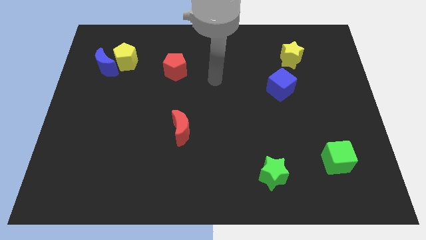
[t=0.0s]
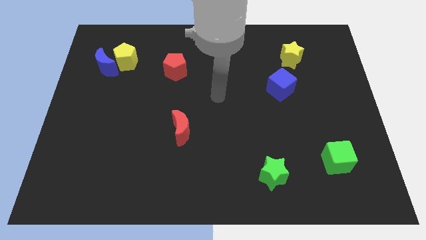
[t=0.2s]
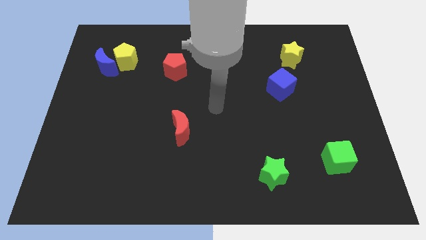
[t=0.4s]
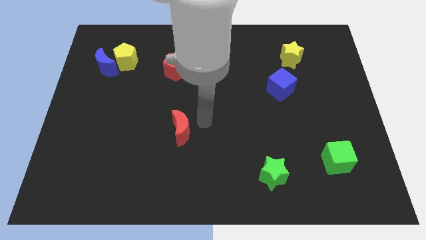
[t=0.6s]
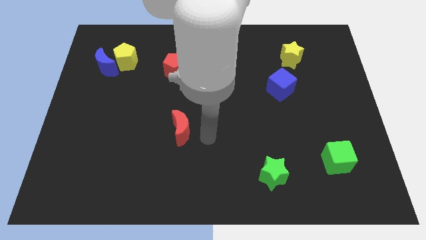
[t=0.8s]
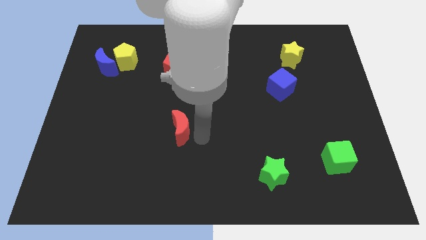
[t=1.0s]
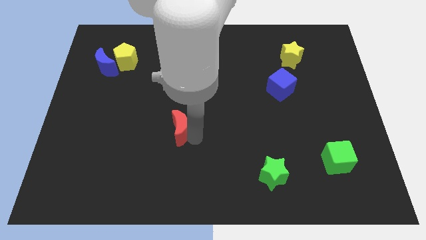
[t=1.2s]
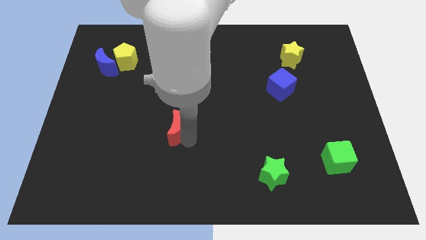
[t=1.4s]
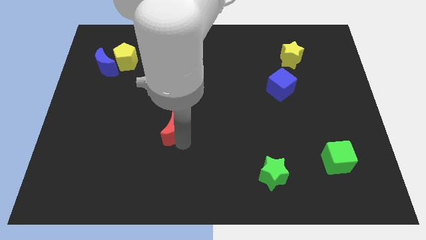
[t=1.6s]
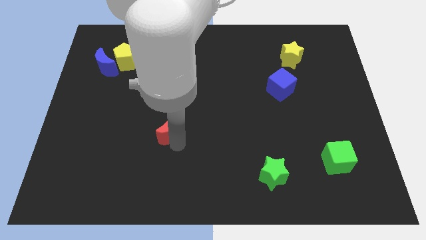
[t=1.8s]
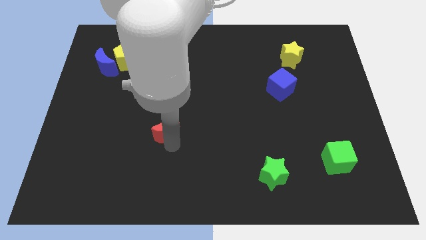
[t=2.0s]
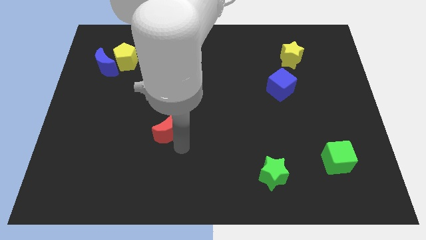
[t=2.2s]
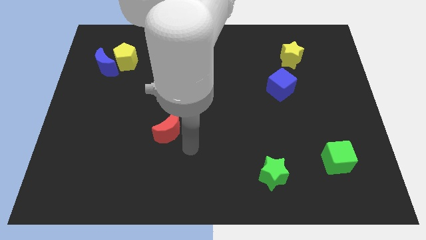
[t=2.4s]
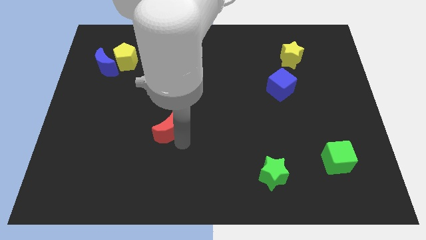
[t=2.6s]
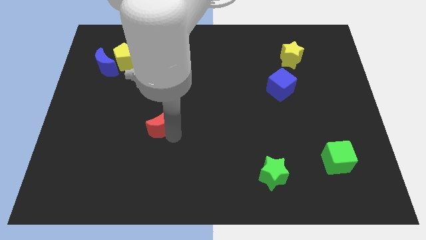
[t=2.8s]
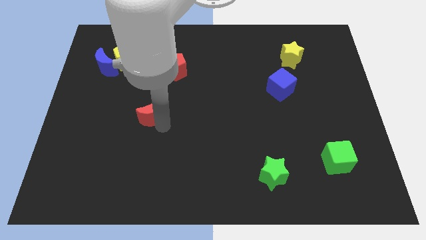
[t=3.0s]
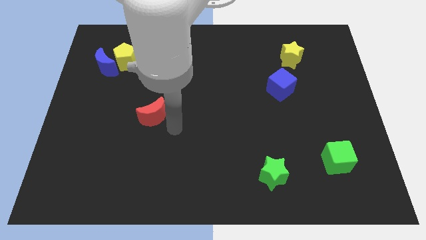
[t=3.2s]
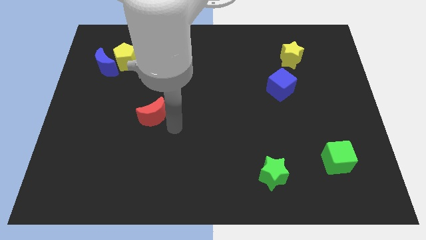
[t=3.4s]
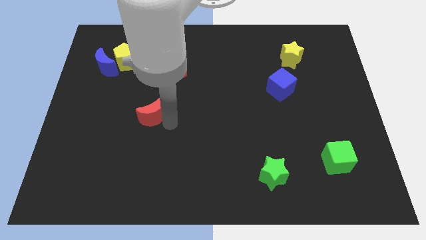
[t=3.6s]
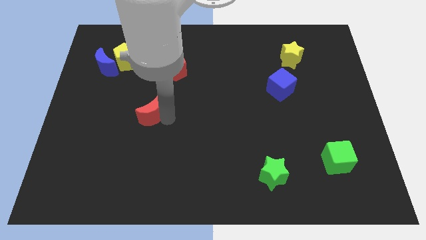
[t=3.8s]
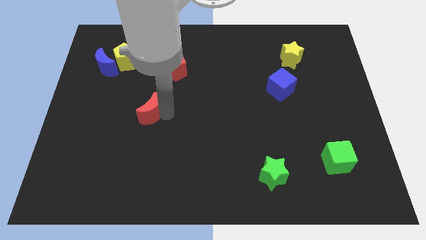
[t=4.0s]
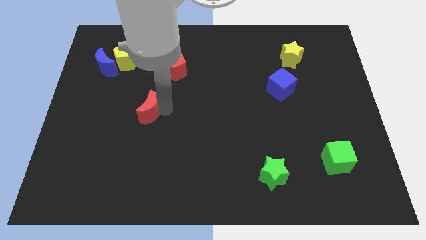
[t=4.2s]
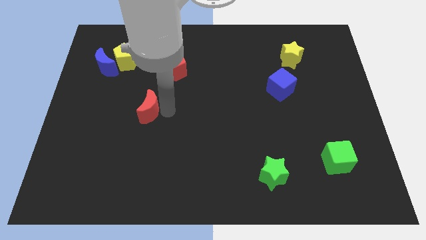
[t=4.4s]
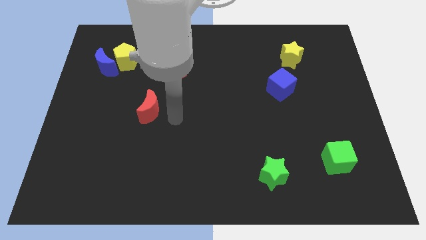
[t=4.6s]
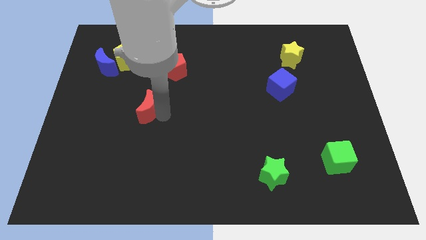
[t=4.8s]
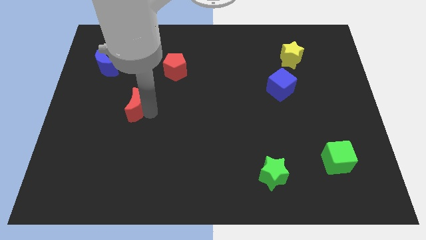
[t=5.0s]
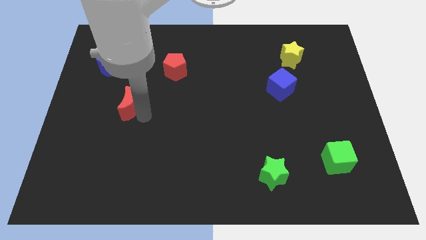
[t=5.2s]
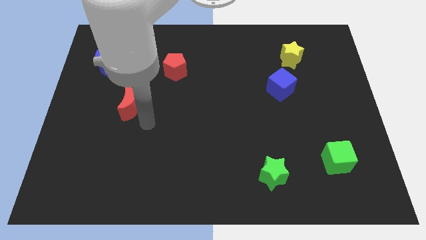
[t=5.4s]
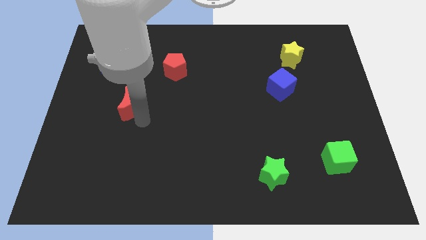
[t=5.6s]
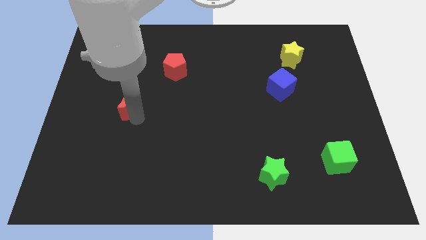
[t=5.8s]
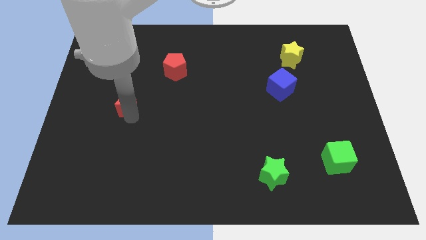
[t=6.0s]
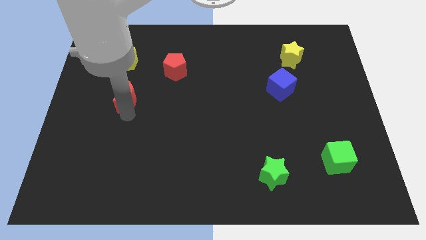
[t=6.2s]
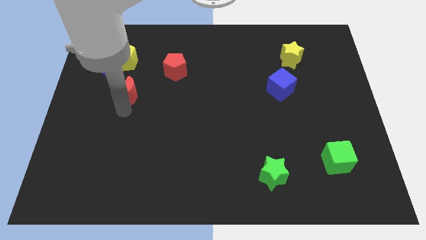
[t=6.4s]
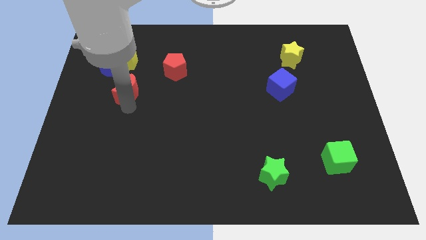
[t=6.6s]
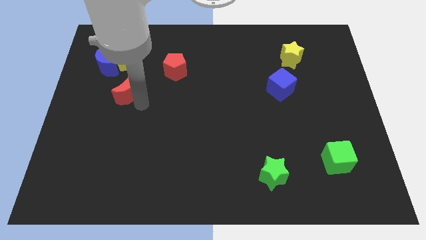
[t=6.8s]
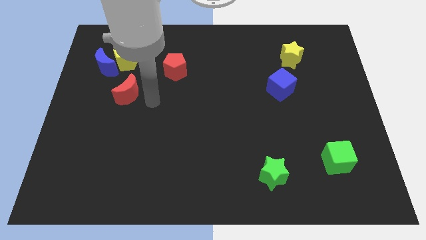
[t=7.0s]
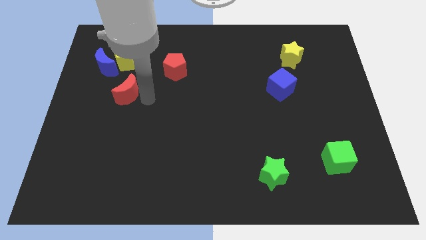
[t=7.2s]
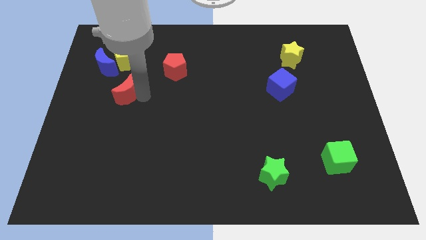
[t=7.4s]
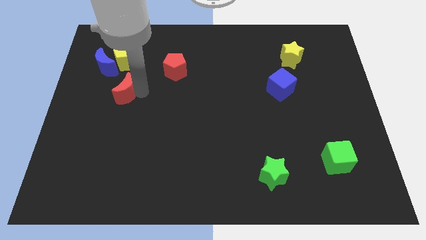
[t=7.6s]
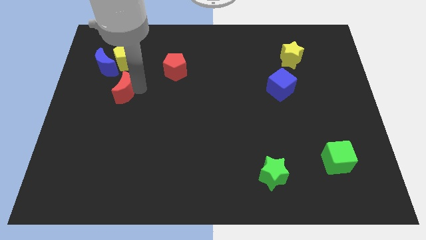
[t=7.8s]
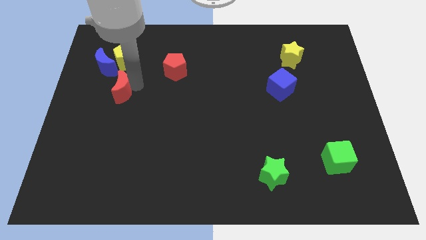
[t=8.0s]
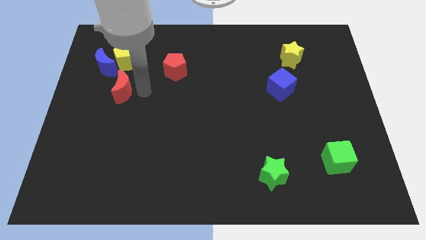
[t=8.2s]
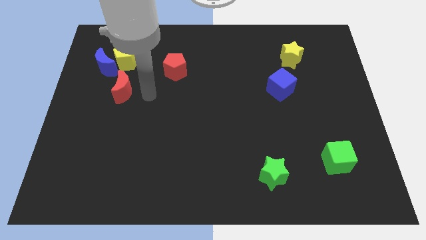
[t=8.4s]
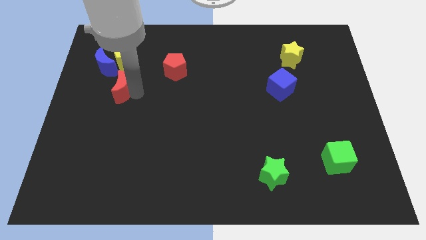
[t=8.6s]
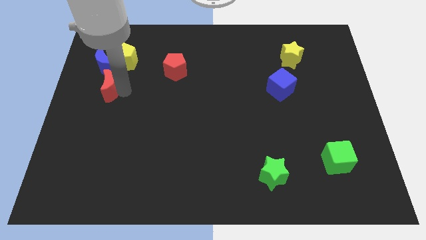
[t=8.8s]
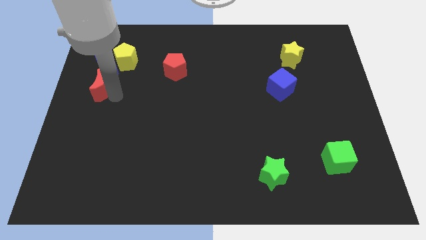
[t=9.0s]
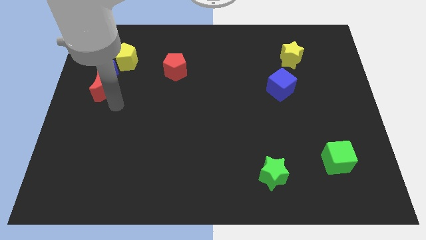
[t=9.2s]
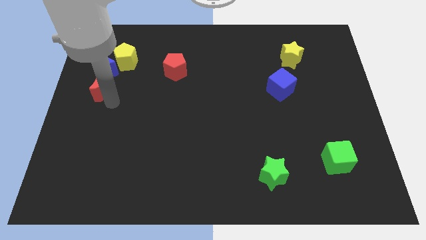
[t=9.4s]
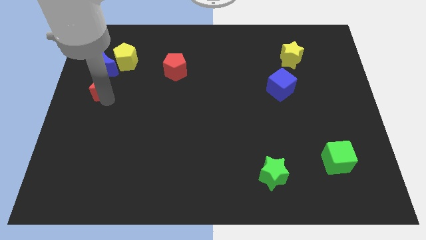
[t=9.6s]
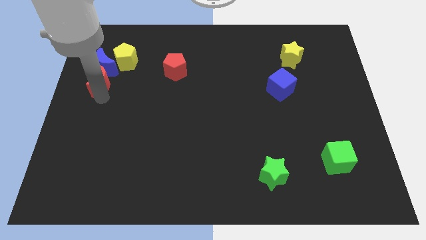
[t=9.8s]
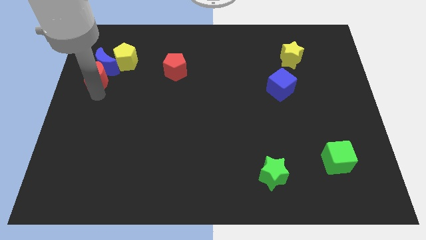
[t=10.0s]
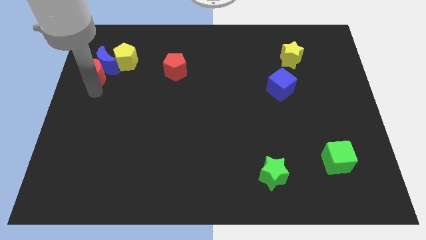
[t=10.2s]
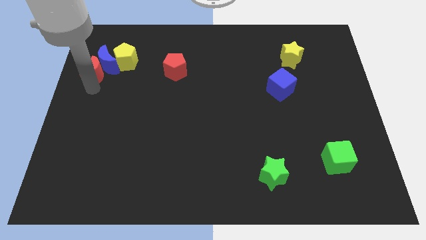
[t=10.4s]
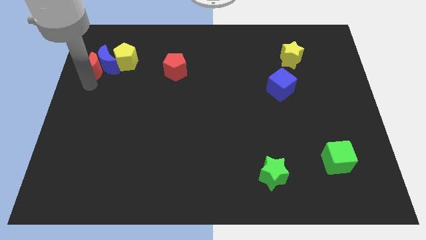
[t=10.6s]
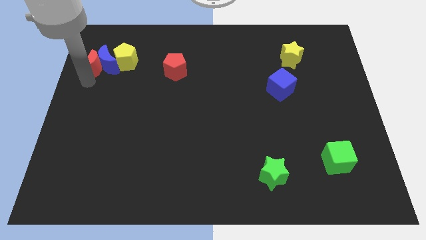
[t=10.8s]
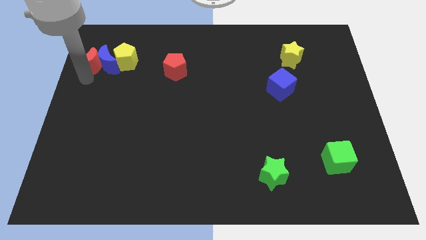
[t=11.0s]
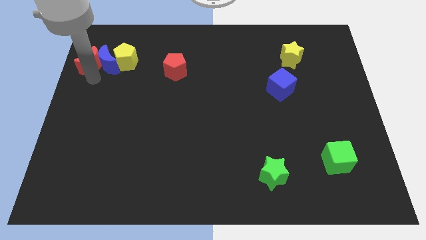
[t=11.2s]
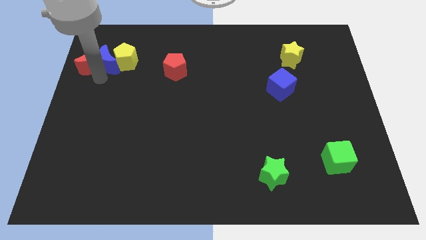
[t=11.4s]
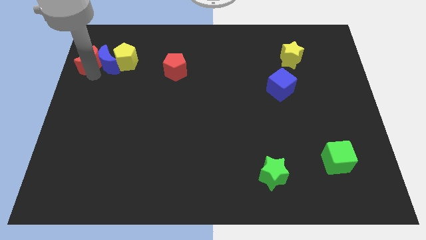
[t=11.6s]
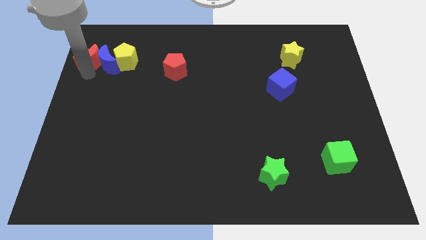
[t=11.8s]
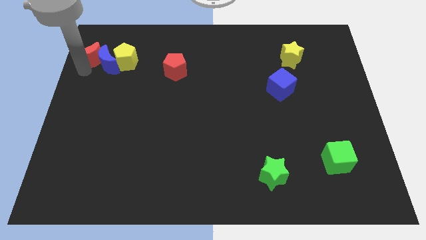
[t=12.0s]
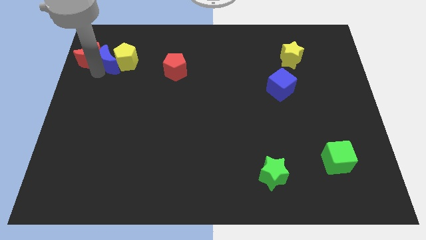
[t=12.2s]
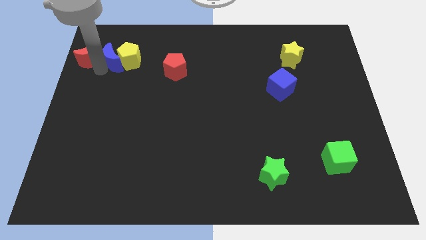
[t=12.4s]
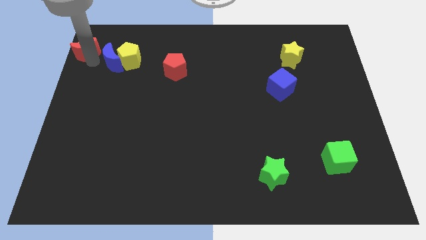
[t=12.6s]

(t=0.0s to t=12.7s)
slide the red moon to the top left of the board
